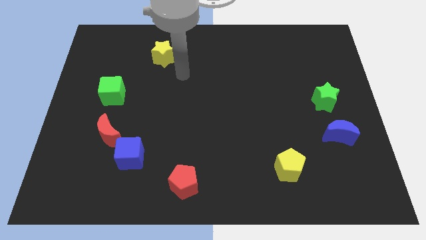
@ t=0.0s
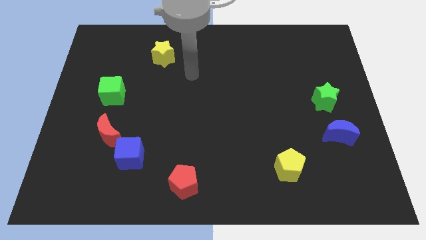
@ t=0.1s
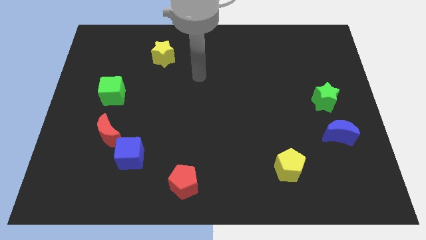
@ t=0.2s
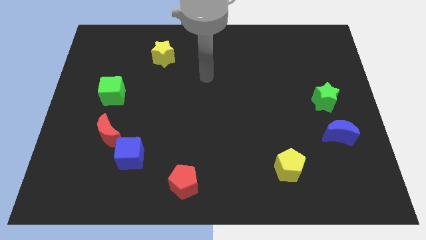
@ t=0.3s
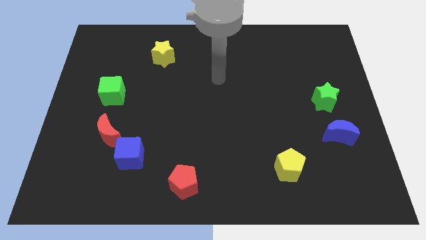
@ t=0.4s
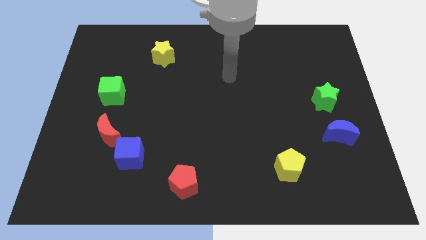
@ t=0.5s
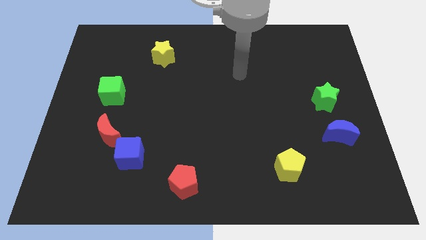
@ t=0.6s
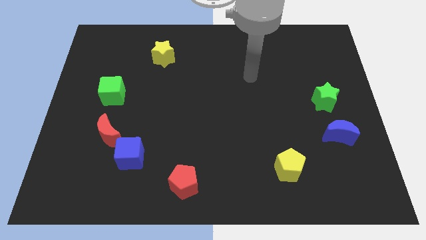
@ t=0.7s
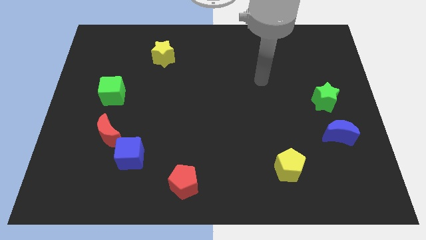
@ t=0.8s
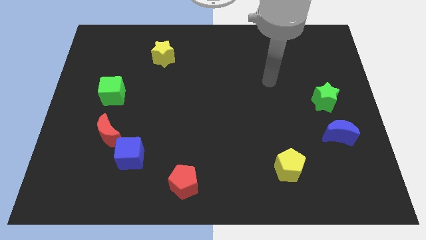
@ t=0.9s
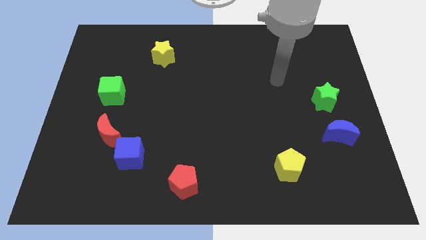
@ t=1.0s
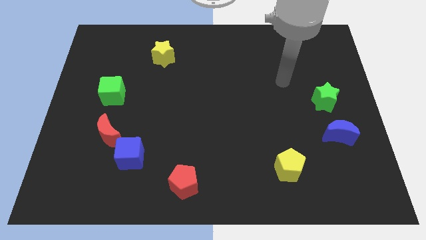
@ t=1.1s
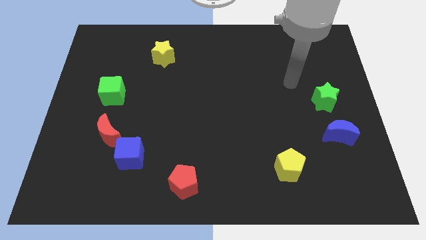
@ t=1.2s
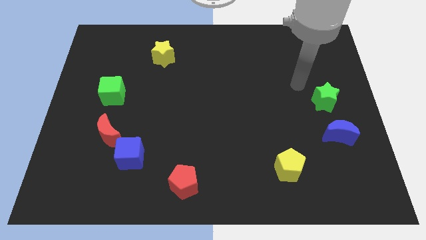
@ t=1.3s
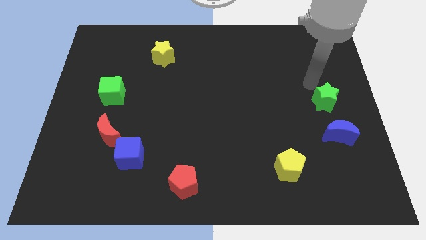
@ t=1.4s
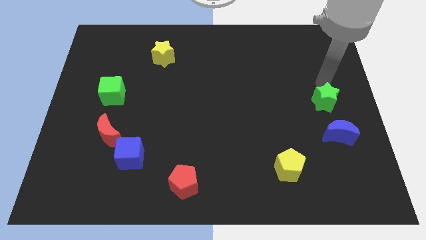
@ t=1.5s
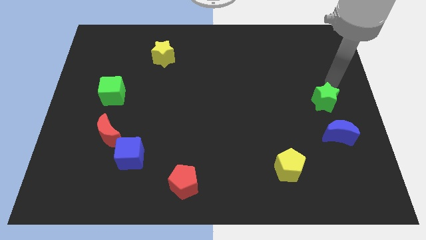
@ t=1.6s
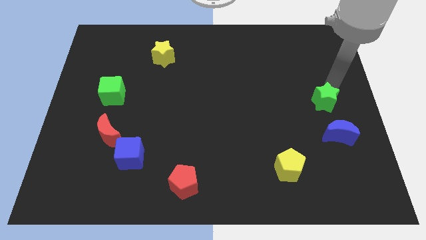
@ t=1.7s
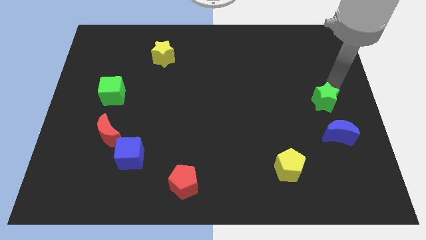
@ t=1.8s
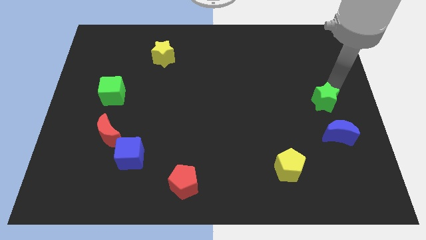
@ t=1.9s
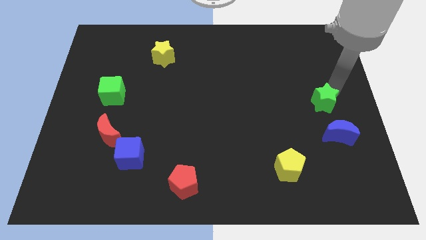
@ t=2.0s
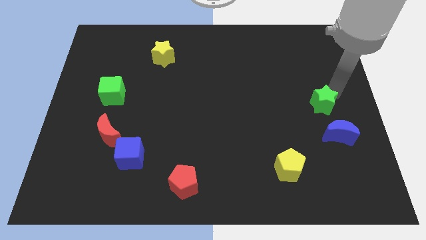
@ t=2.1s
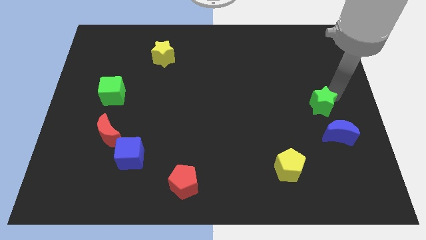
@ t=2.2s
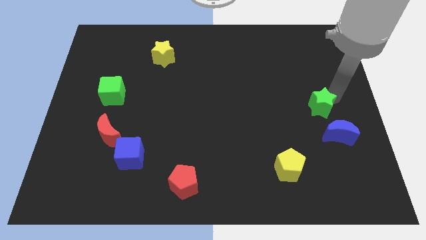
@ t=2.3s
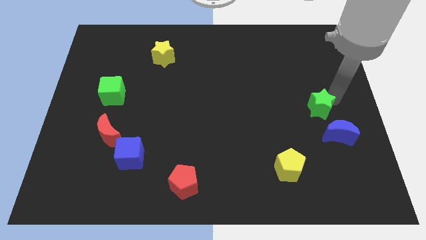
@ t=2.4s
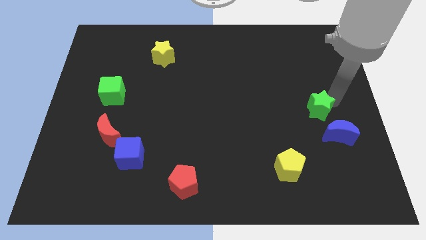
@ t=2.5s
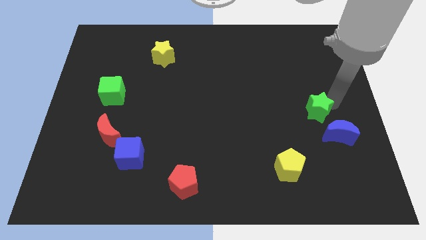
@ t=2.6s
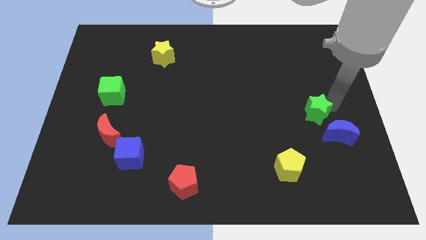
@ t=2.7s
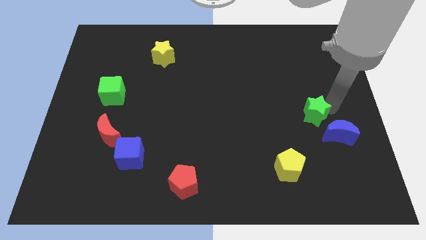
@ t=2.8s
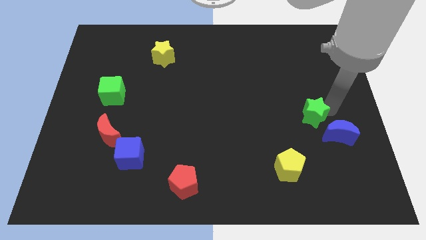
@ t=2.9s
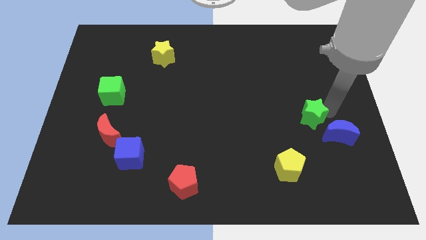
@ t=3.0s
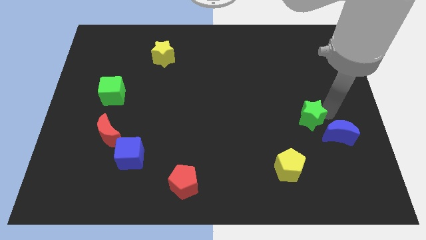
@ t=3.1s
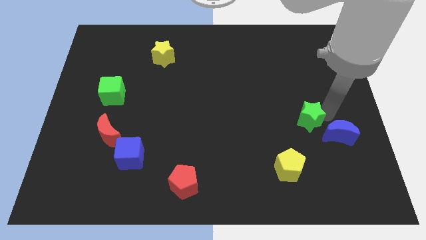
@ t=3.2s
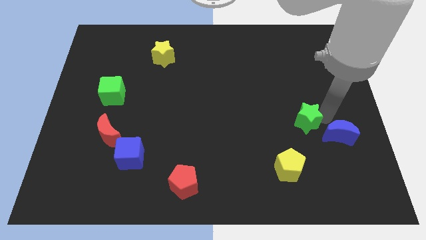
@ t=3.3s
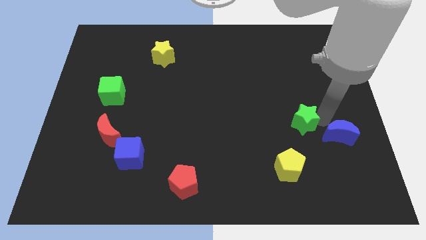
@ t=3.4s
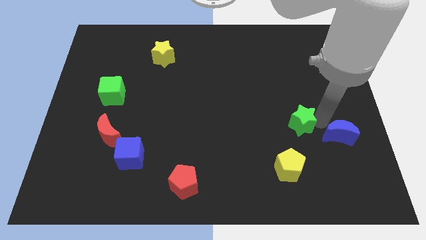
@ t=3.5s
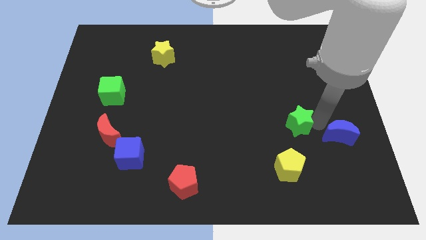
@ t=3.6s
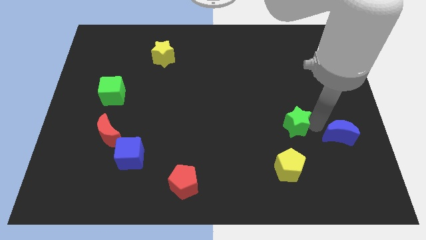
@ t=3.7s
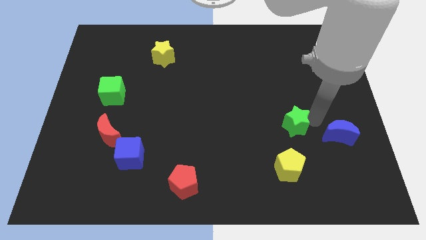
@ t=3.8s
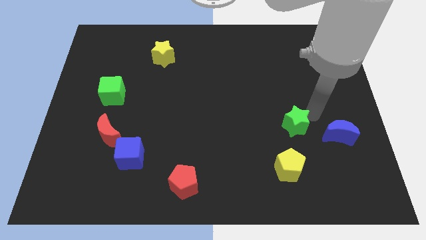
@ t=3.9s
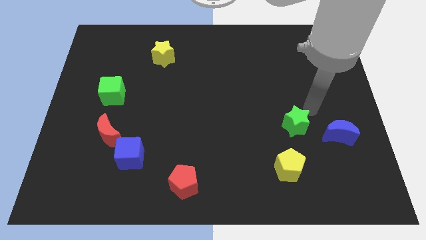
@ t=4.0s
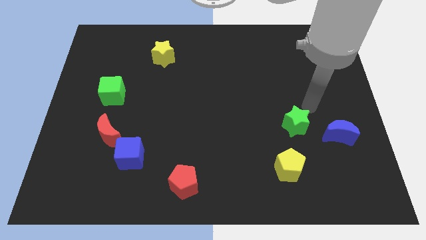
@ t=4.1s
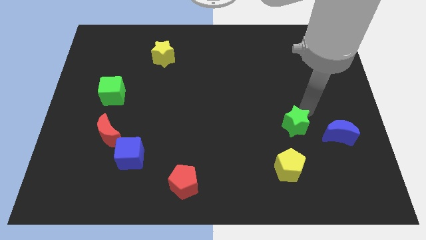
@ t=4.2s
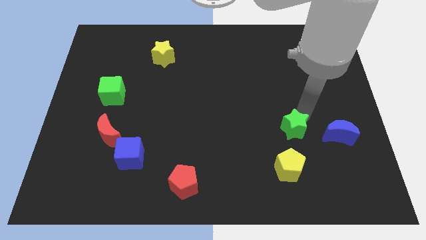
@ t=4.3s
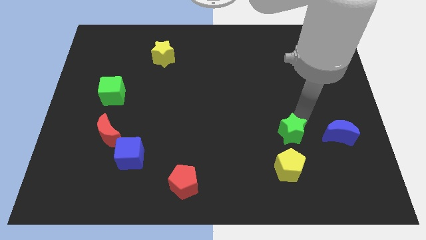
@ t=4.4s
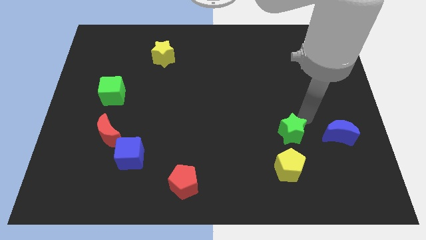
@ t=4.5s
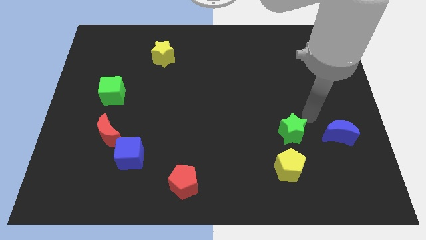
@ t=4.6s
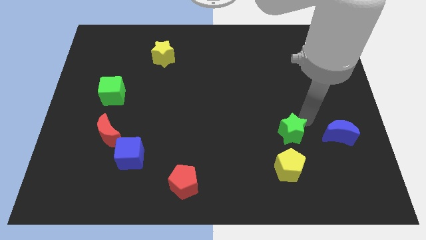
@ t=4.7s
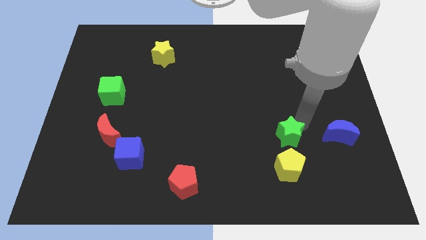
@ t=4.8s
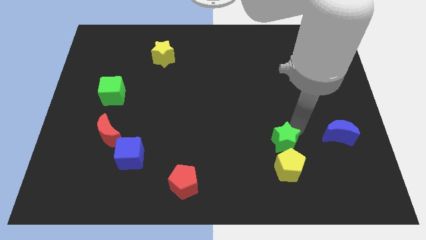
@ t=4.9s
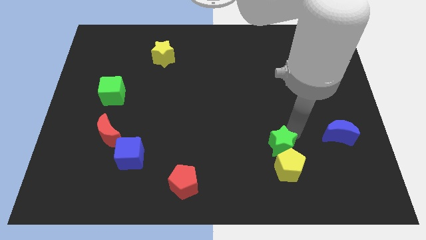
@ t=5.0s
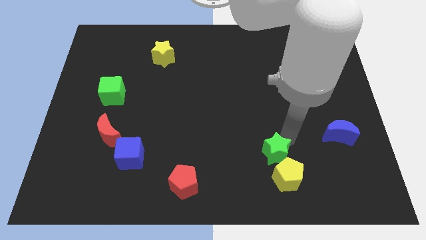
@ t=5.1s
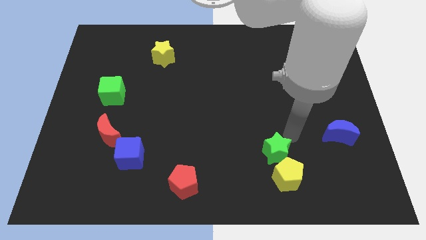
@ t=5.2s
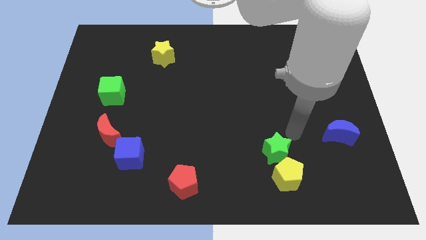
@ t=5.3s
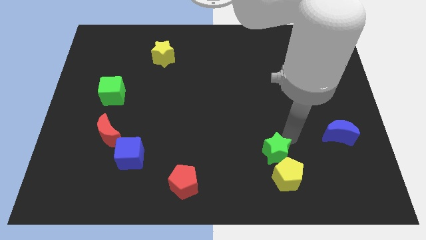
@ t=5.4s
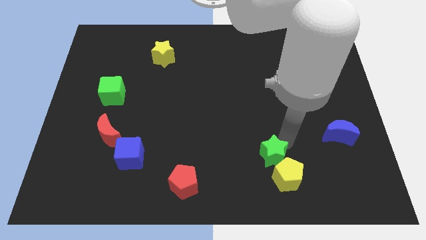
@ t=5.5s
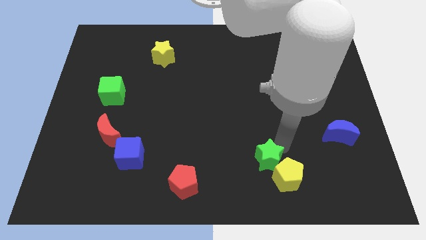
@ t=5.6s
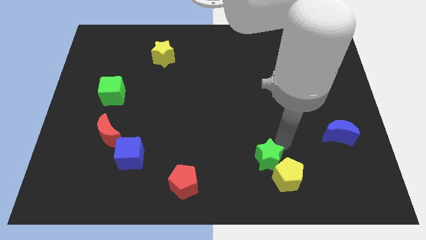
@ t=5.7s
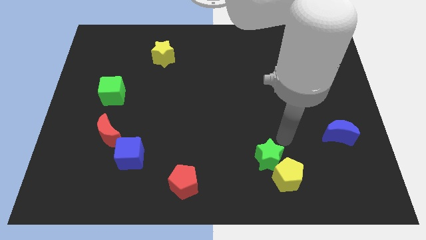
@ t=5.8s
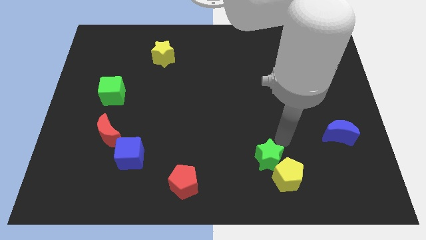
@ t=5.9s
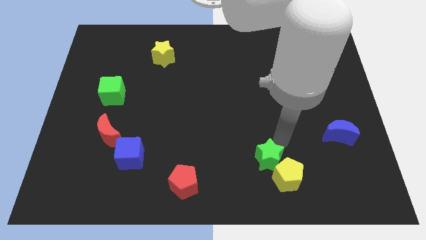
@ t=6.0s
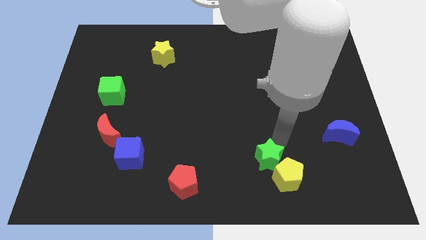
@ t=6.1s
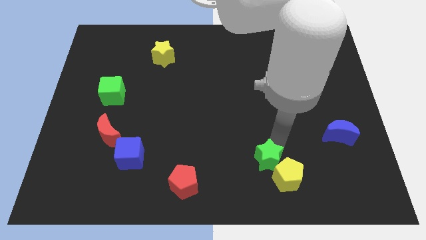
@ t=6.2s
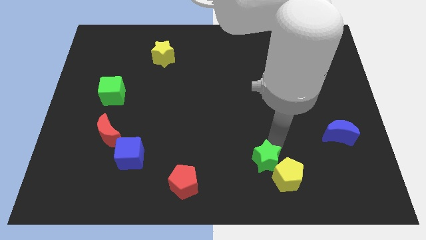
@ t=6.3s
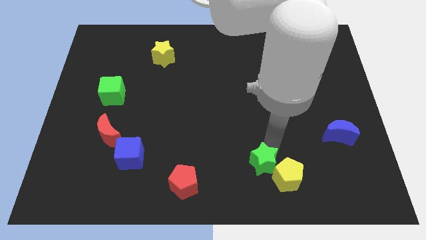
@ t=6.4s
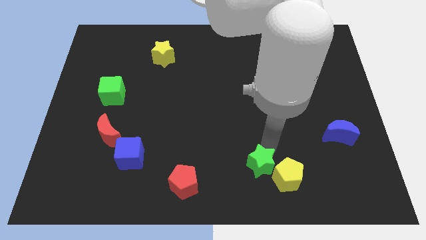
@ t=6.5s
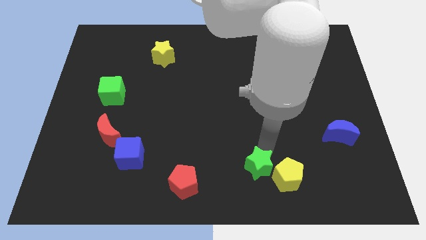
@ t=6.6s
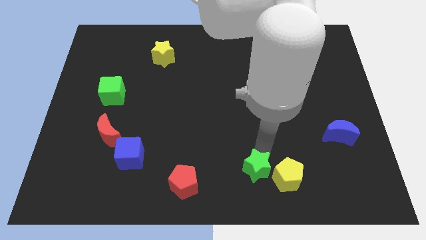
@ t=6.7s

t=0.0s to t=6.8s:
push the green star to the bottom

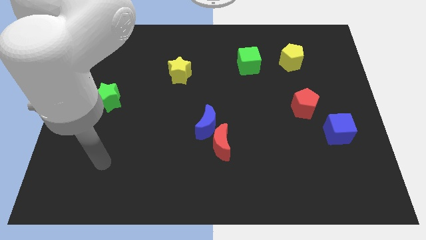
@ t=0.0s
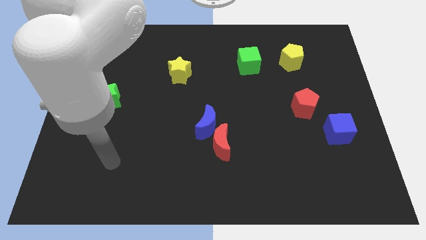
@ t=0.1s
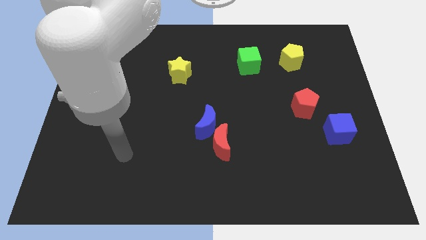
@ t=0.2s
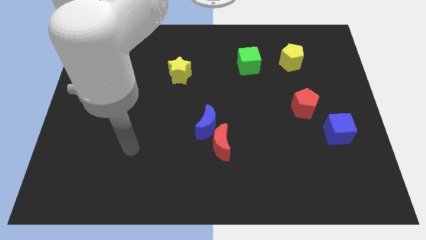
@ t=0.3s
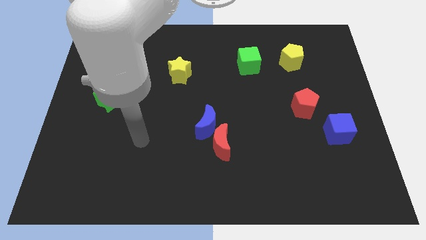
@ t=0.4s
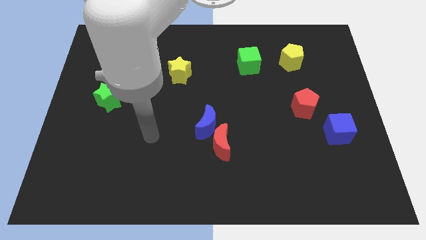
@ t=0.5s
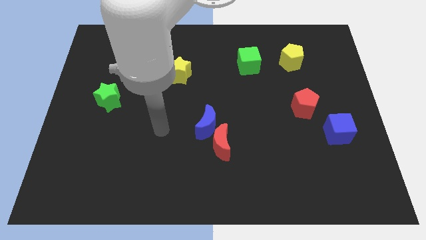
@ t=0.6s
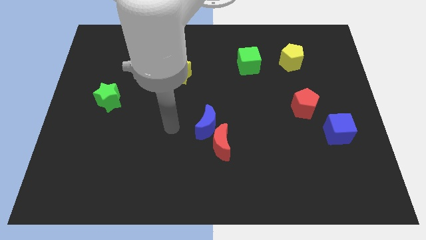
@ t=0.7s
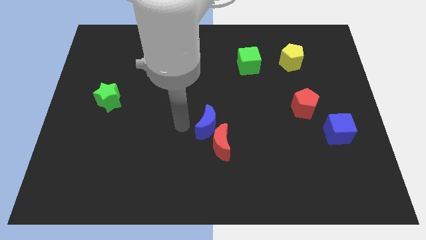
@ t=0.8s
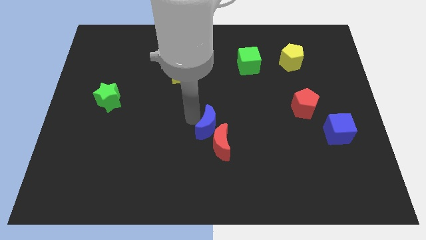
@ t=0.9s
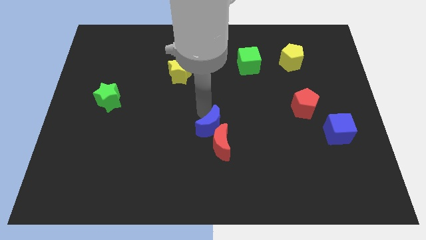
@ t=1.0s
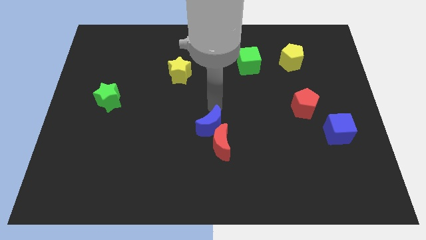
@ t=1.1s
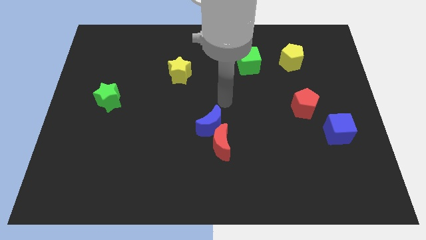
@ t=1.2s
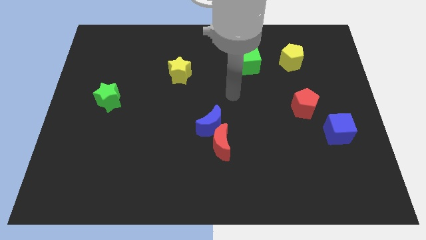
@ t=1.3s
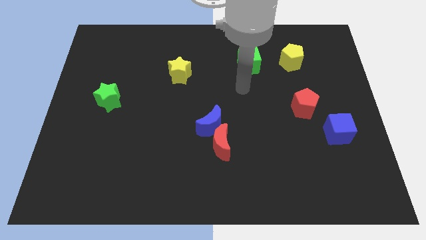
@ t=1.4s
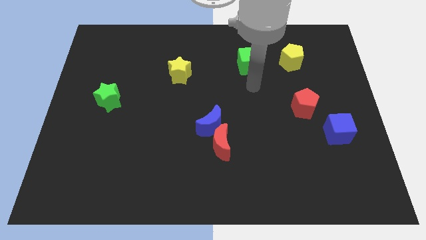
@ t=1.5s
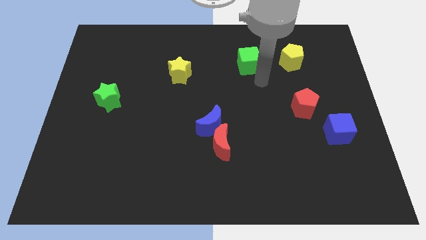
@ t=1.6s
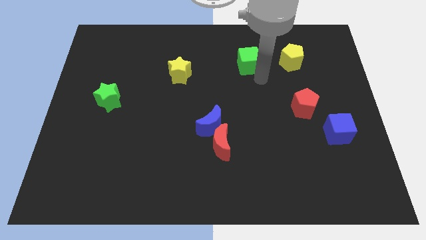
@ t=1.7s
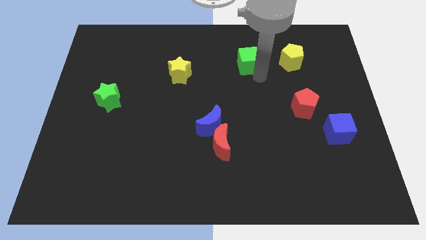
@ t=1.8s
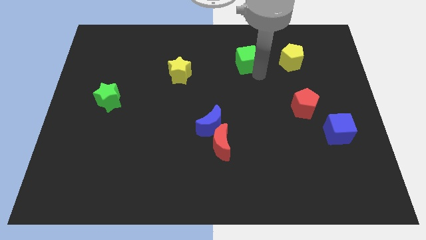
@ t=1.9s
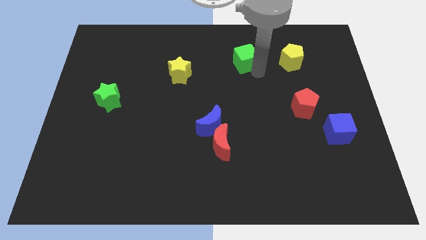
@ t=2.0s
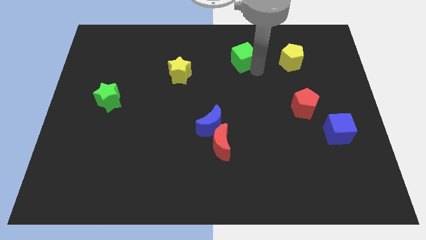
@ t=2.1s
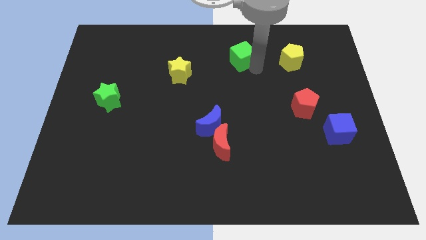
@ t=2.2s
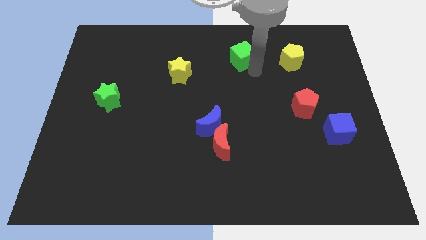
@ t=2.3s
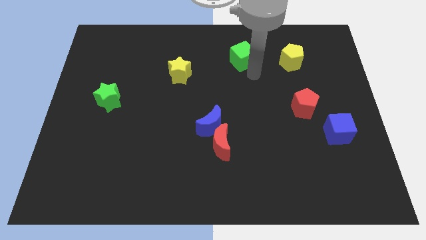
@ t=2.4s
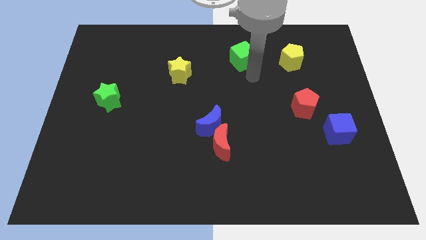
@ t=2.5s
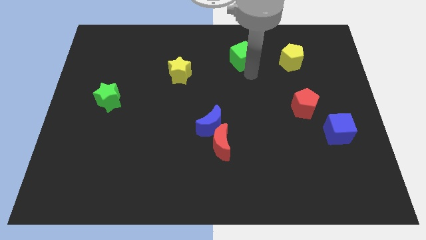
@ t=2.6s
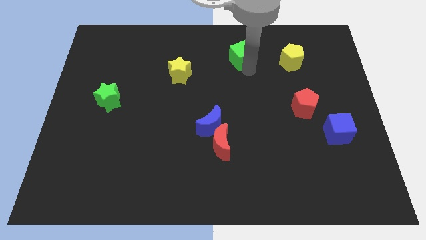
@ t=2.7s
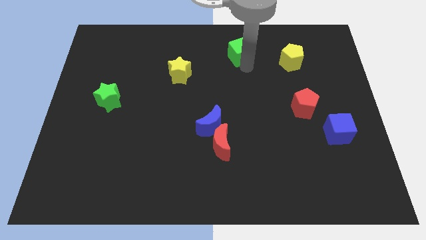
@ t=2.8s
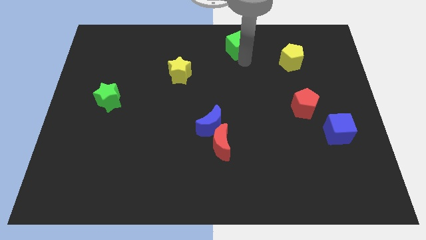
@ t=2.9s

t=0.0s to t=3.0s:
put the green cube to the towards your base
